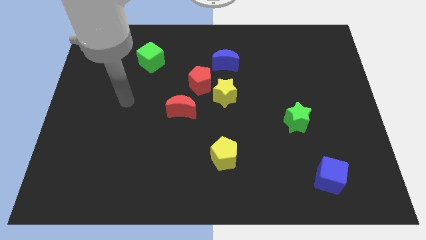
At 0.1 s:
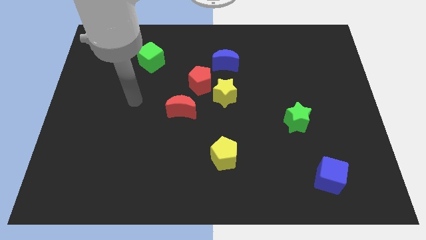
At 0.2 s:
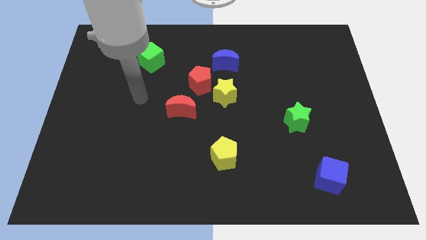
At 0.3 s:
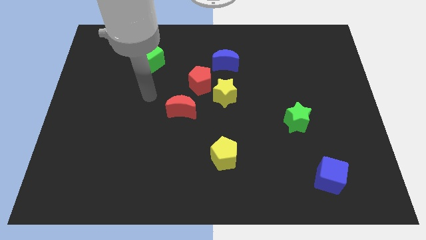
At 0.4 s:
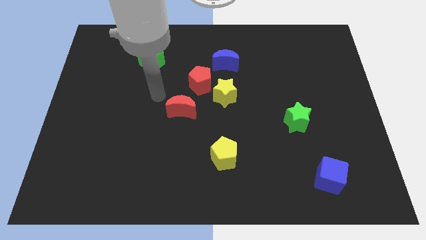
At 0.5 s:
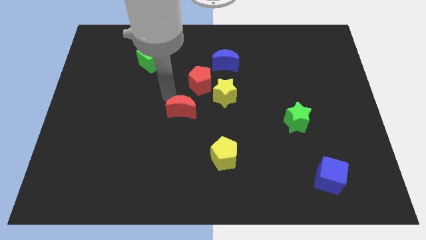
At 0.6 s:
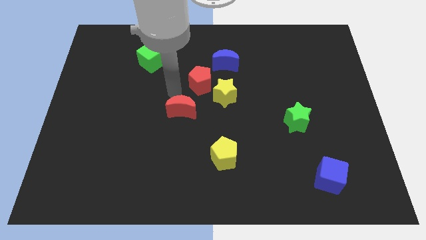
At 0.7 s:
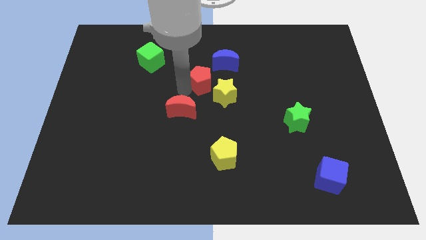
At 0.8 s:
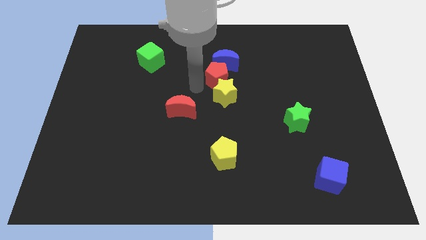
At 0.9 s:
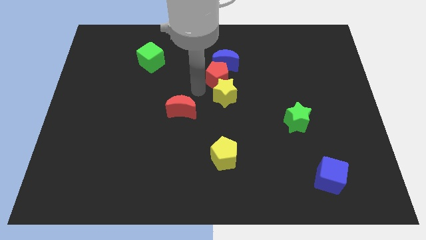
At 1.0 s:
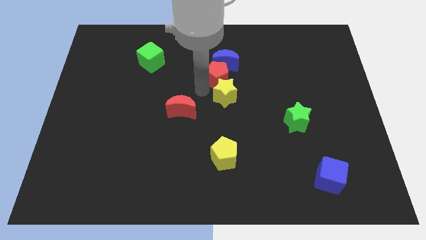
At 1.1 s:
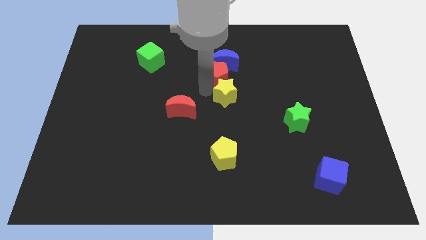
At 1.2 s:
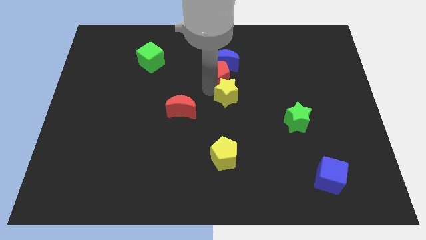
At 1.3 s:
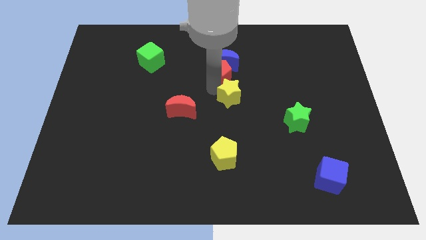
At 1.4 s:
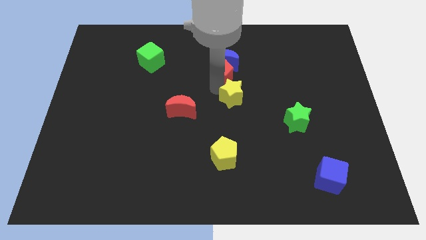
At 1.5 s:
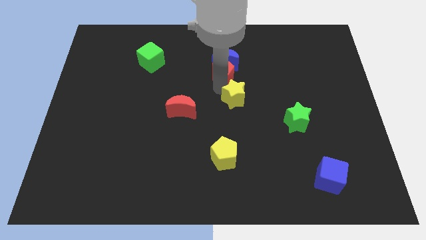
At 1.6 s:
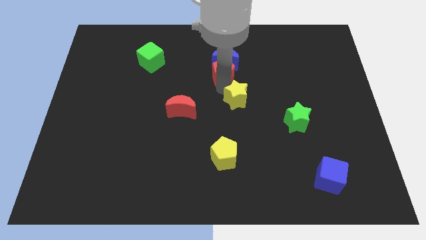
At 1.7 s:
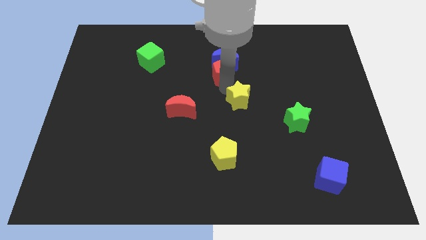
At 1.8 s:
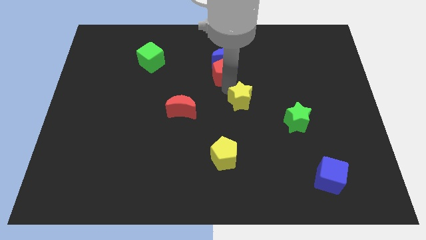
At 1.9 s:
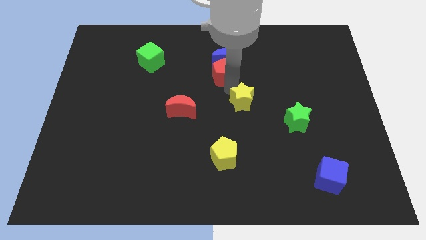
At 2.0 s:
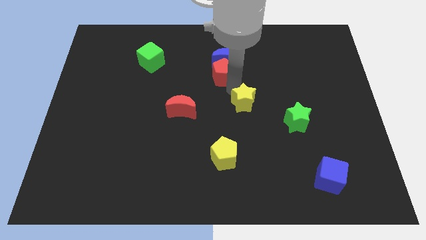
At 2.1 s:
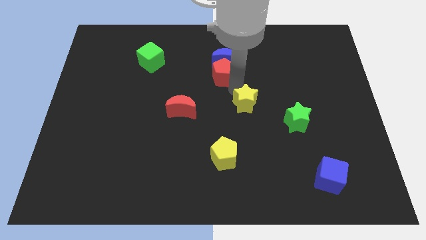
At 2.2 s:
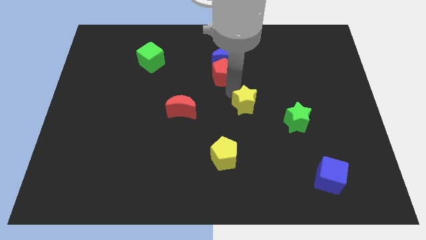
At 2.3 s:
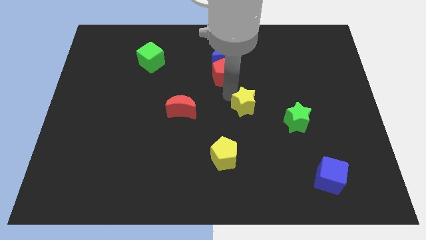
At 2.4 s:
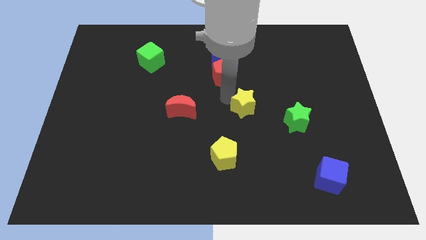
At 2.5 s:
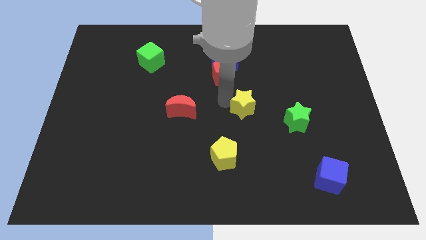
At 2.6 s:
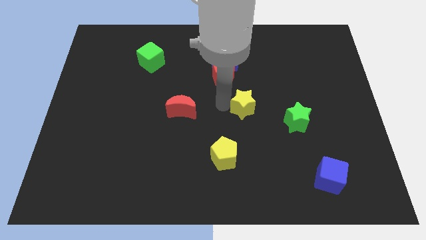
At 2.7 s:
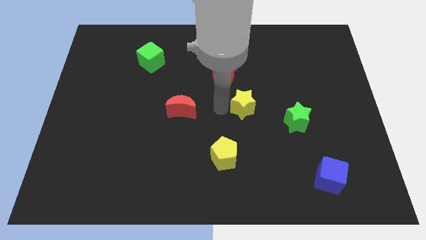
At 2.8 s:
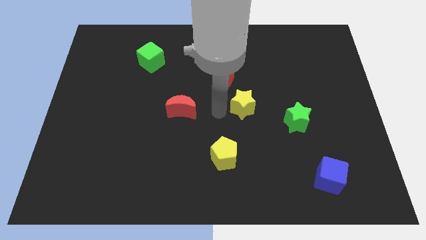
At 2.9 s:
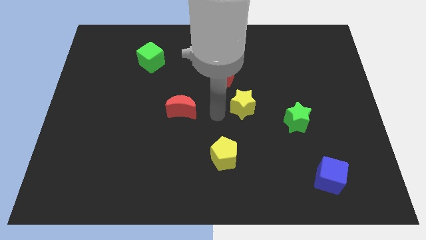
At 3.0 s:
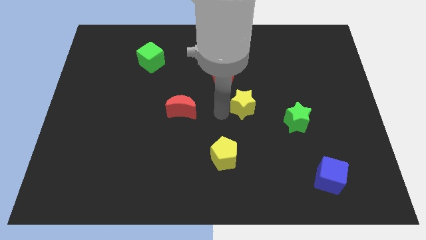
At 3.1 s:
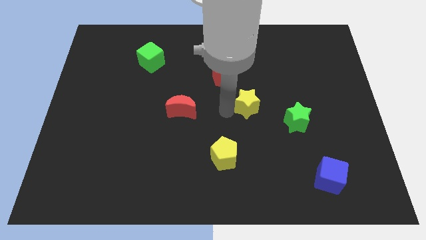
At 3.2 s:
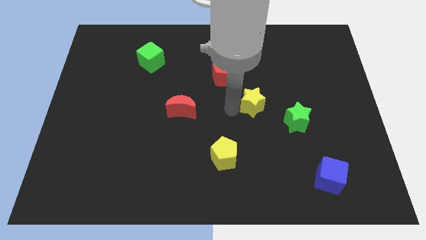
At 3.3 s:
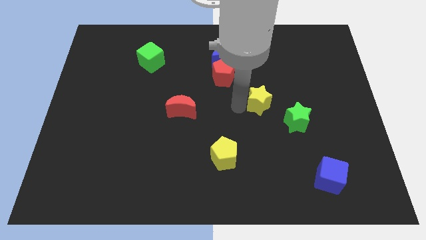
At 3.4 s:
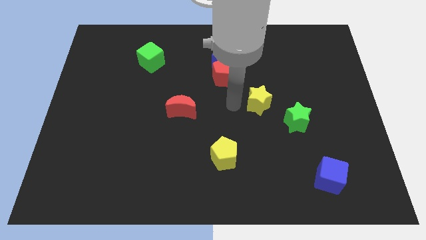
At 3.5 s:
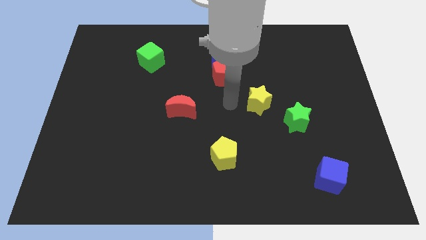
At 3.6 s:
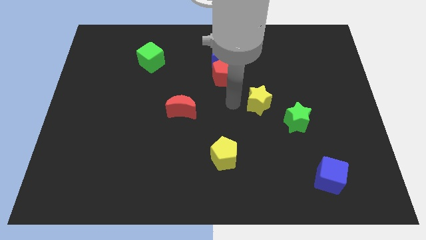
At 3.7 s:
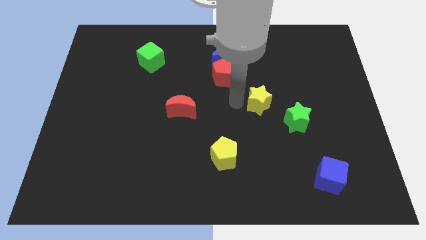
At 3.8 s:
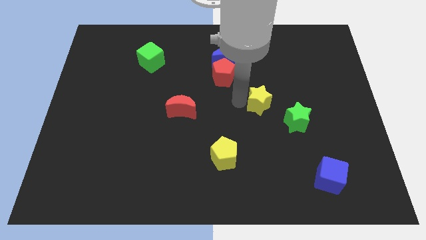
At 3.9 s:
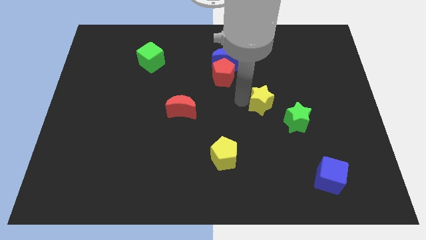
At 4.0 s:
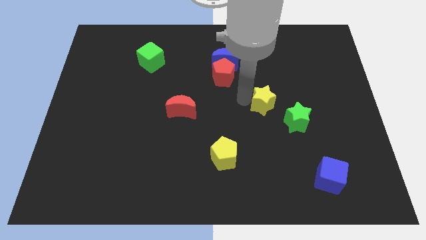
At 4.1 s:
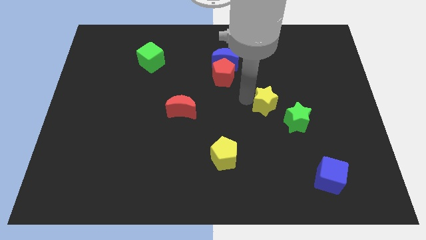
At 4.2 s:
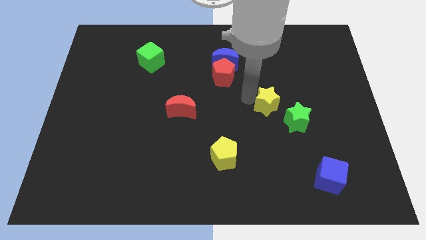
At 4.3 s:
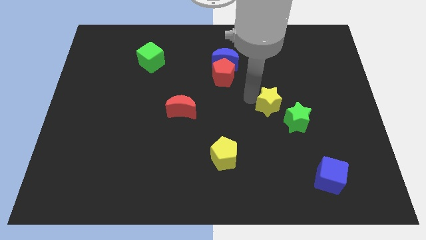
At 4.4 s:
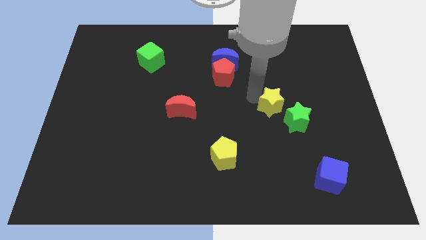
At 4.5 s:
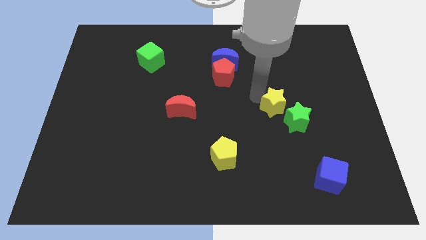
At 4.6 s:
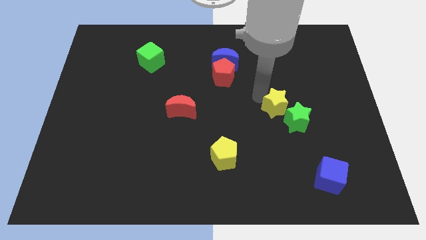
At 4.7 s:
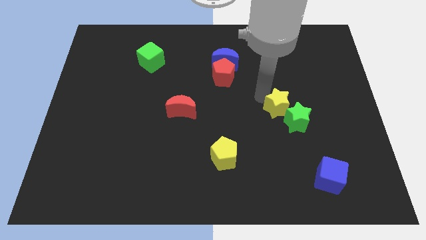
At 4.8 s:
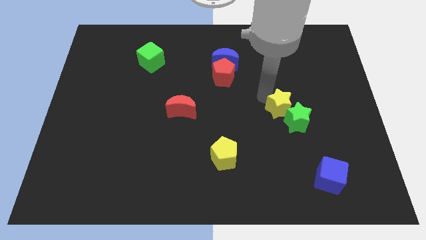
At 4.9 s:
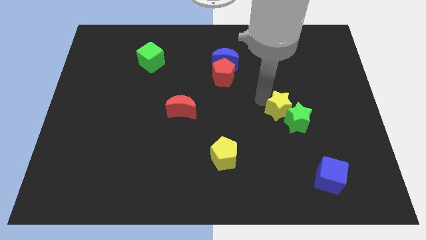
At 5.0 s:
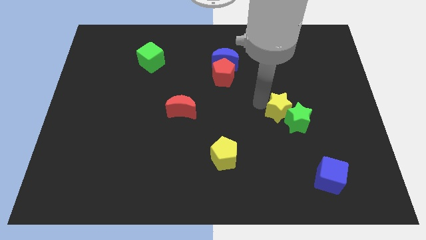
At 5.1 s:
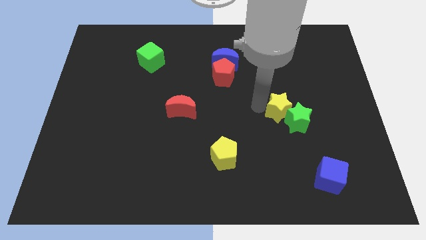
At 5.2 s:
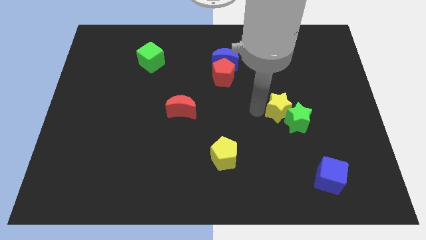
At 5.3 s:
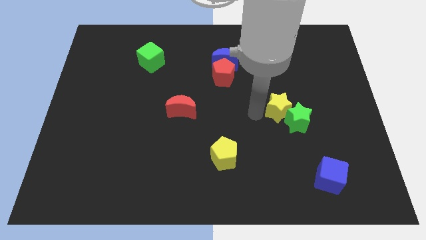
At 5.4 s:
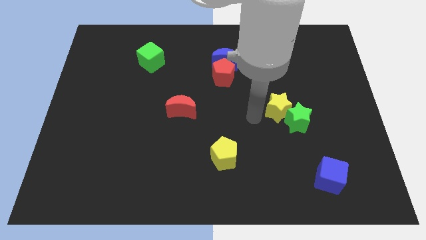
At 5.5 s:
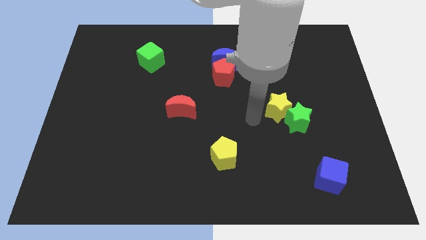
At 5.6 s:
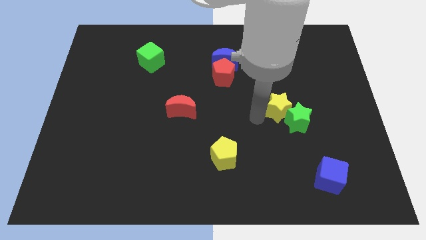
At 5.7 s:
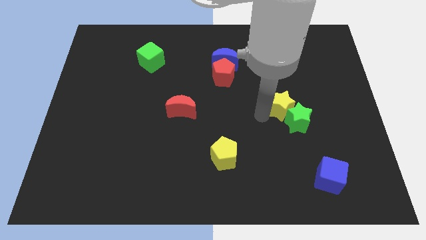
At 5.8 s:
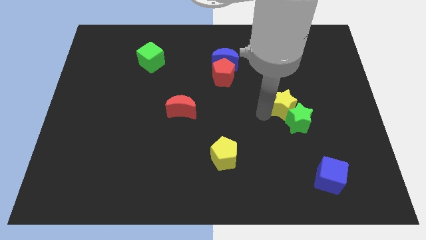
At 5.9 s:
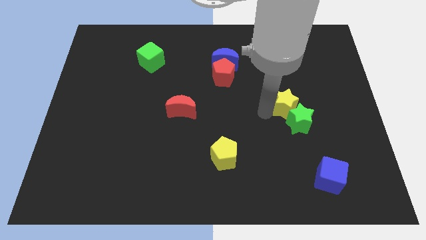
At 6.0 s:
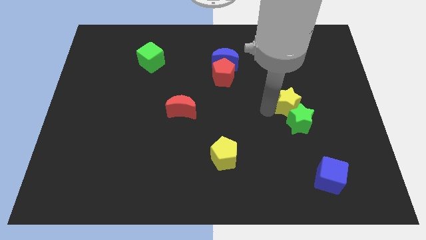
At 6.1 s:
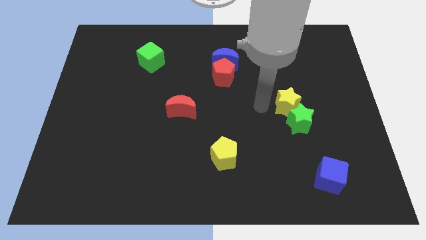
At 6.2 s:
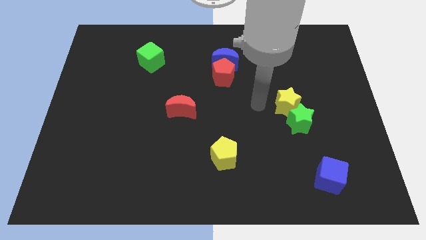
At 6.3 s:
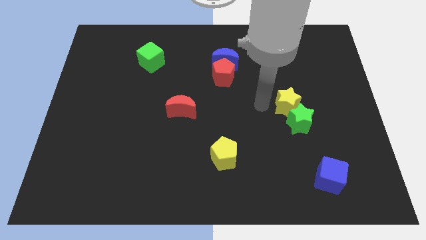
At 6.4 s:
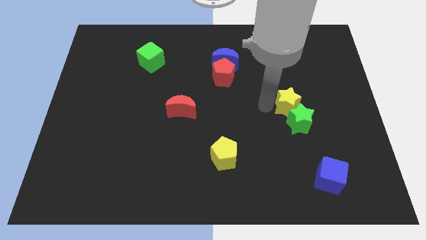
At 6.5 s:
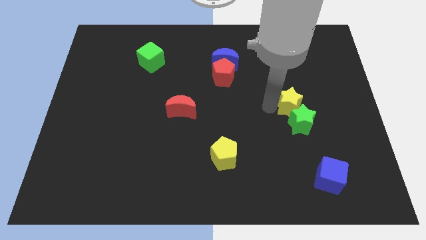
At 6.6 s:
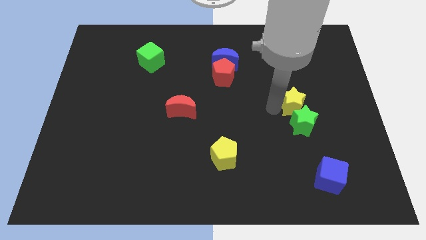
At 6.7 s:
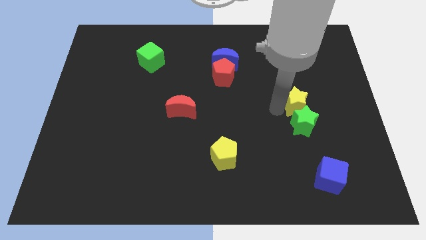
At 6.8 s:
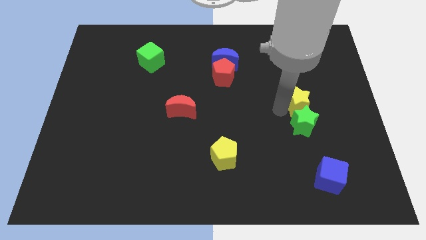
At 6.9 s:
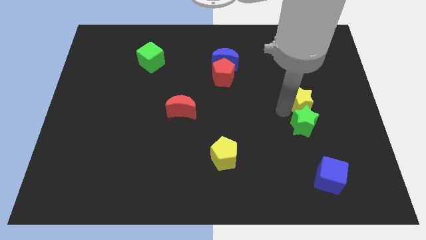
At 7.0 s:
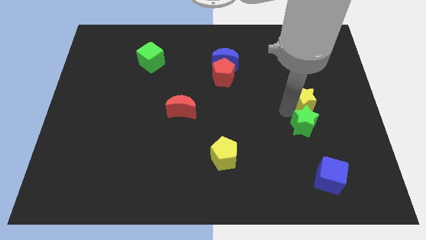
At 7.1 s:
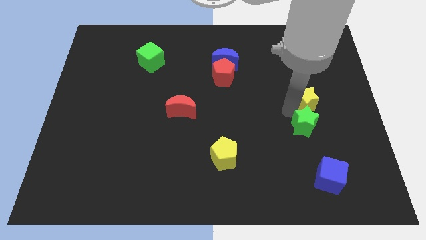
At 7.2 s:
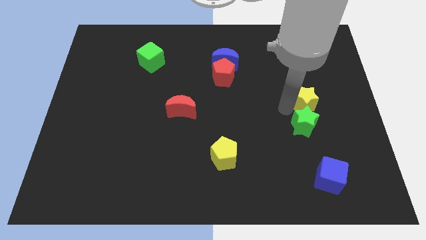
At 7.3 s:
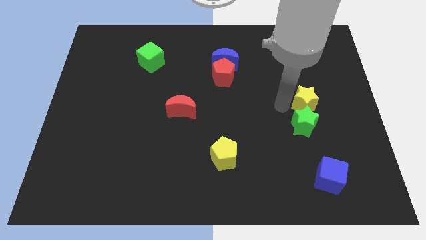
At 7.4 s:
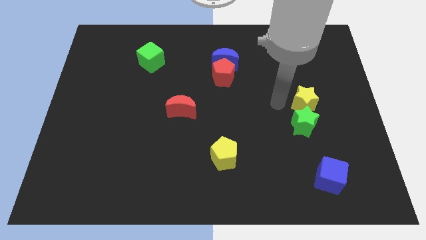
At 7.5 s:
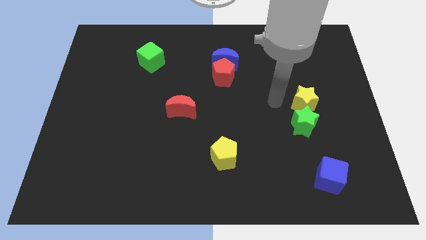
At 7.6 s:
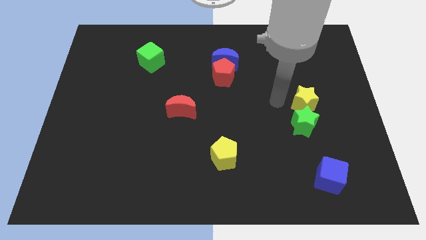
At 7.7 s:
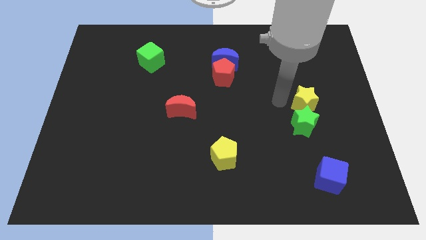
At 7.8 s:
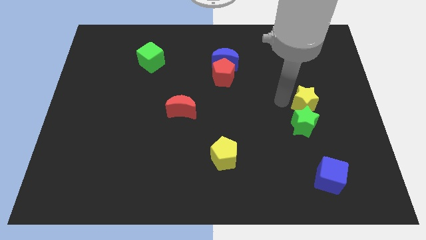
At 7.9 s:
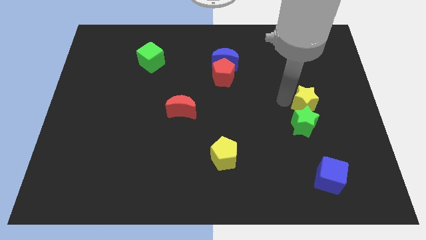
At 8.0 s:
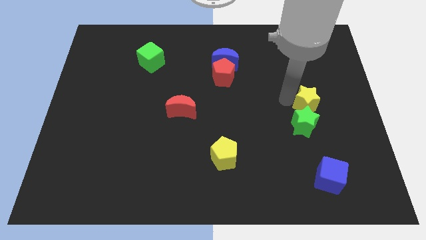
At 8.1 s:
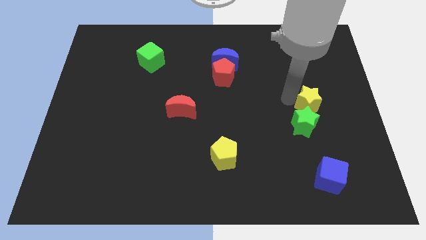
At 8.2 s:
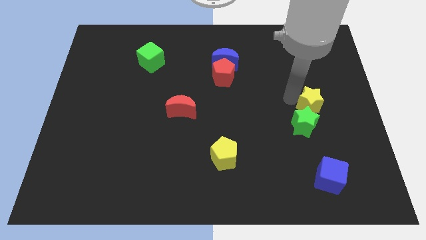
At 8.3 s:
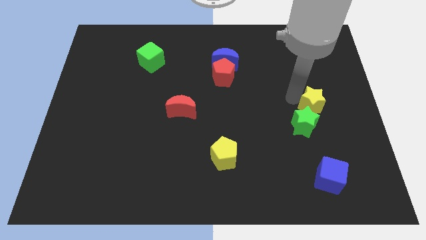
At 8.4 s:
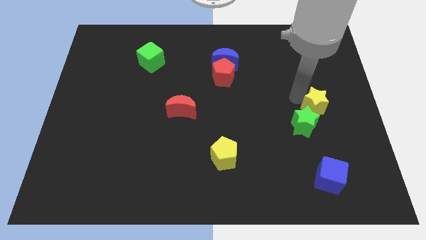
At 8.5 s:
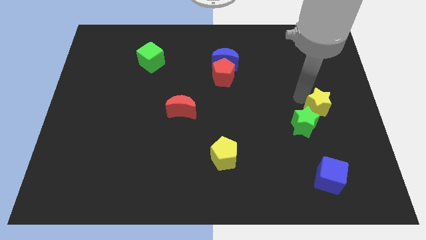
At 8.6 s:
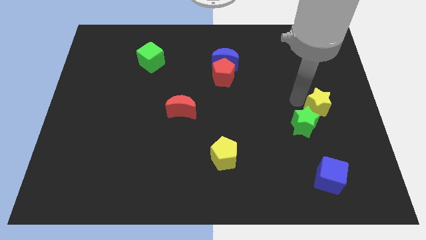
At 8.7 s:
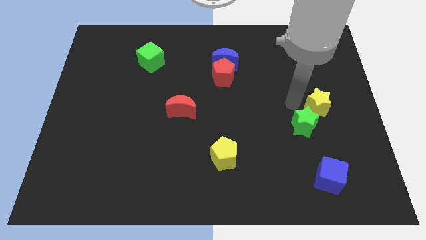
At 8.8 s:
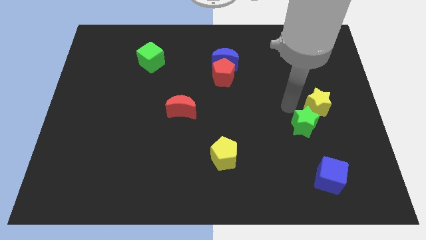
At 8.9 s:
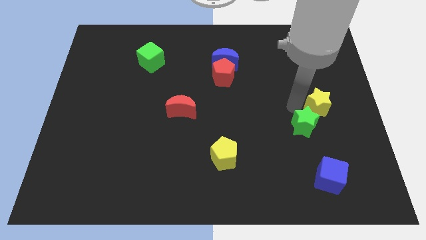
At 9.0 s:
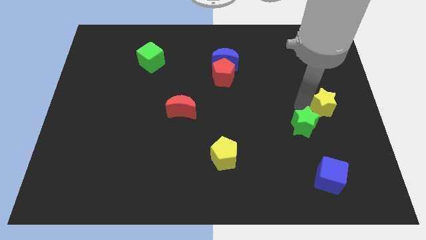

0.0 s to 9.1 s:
move the yellow star to the right side of the board
